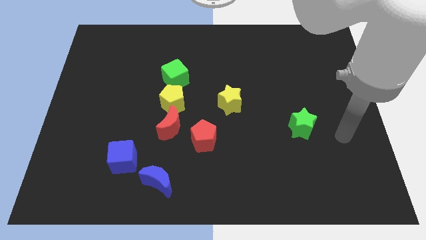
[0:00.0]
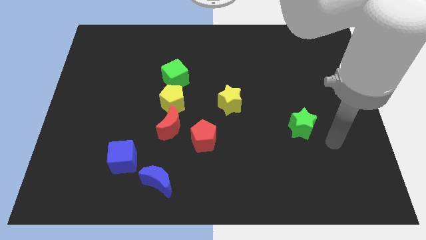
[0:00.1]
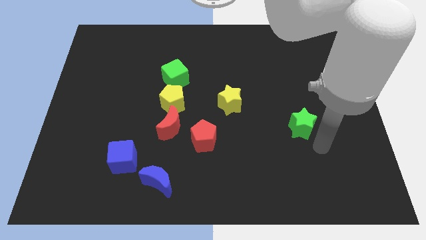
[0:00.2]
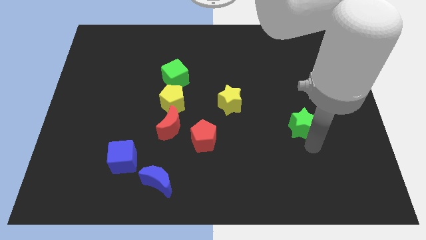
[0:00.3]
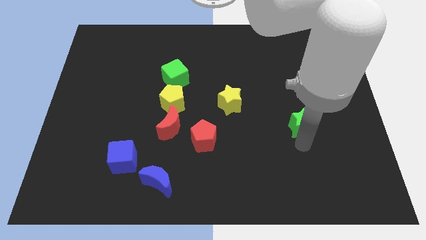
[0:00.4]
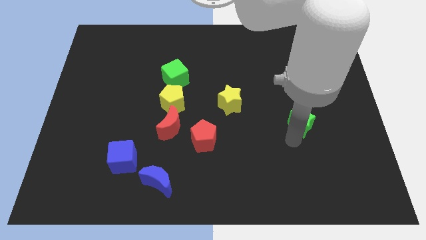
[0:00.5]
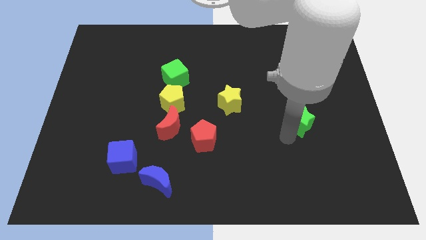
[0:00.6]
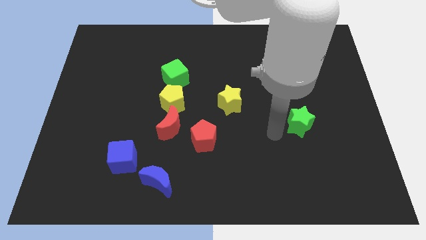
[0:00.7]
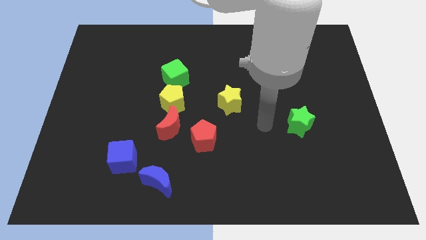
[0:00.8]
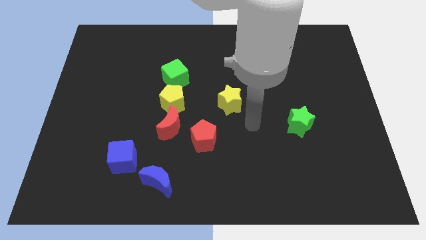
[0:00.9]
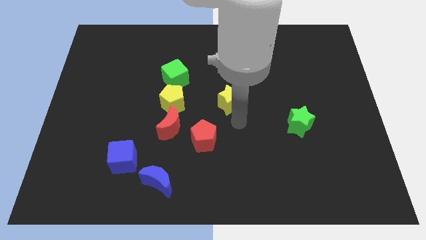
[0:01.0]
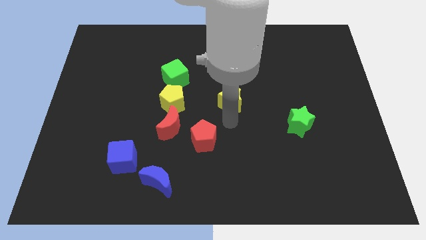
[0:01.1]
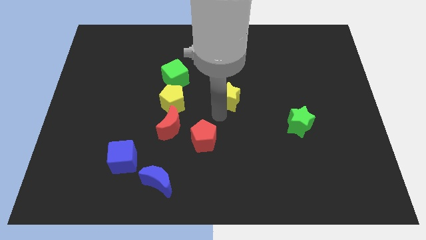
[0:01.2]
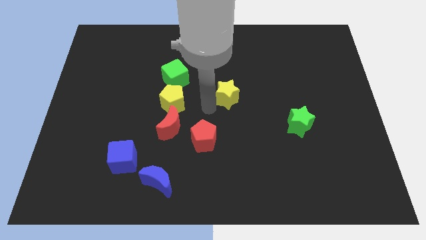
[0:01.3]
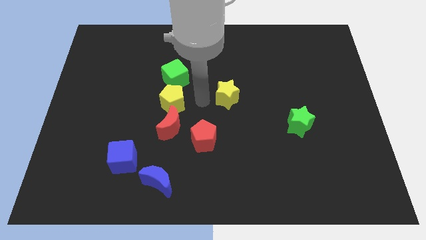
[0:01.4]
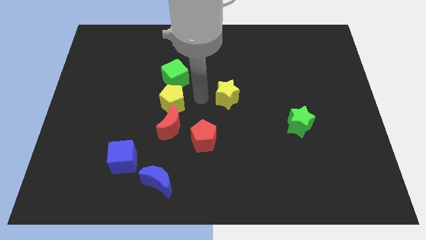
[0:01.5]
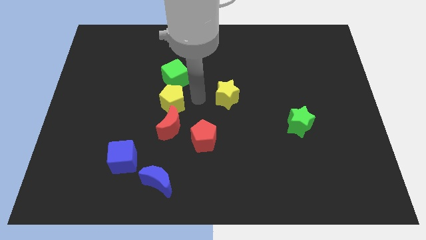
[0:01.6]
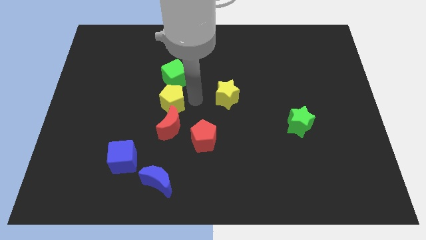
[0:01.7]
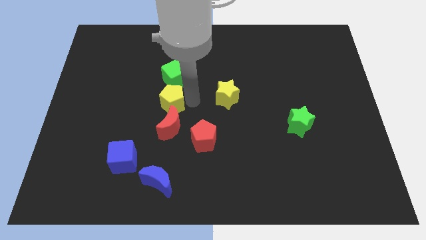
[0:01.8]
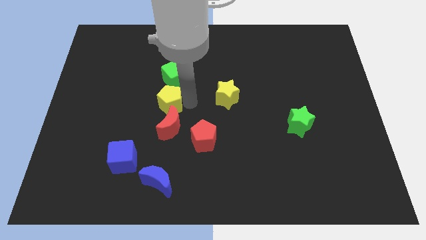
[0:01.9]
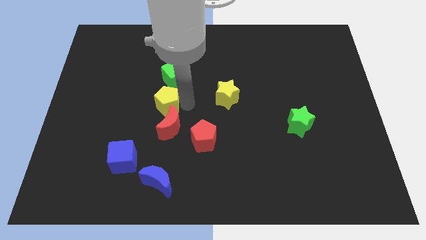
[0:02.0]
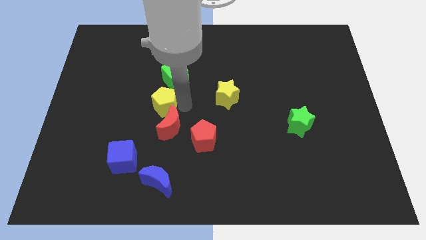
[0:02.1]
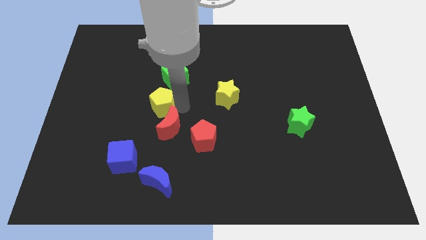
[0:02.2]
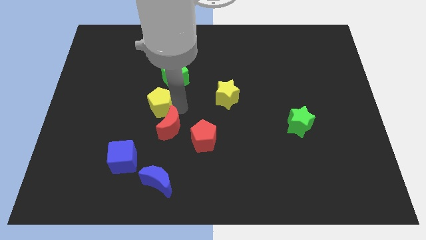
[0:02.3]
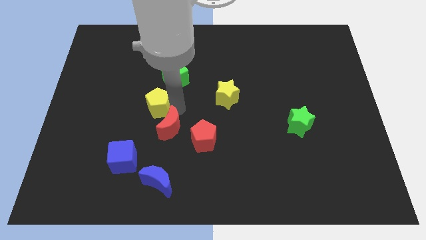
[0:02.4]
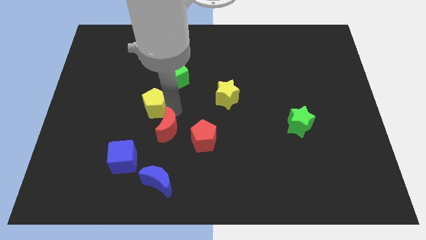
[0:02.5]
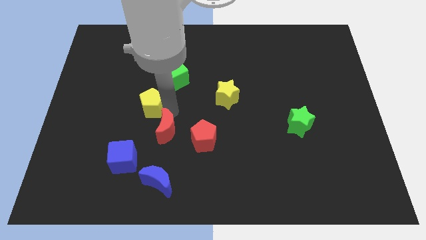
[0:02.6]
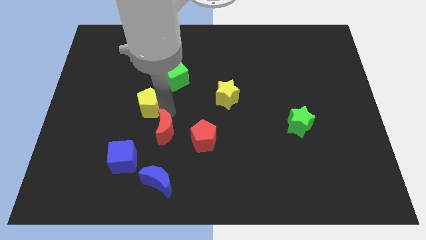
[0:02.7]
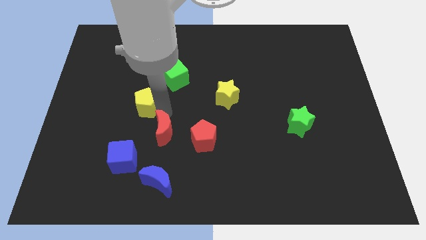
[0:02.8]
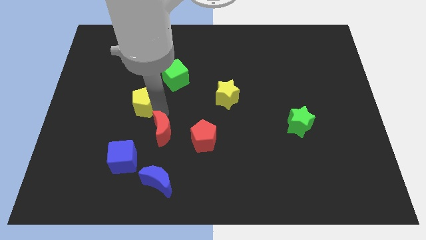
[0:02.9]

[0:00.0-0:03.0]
push the yellow pentagon left a little

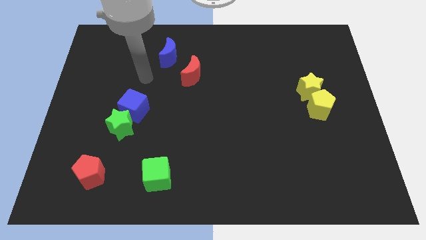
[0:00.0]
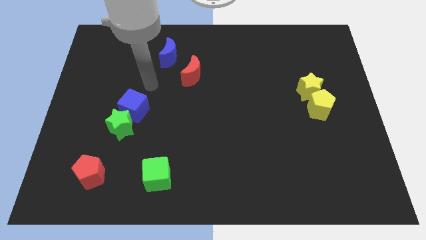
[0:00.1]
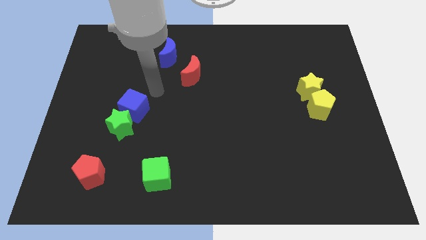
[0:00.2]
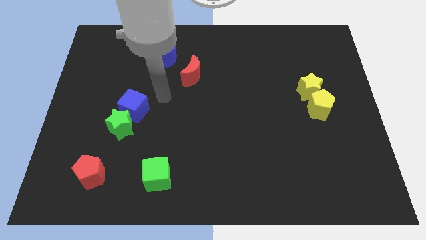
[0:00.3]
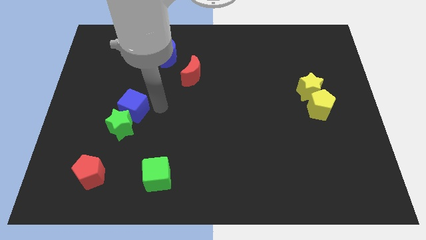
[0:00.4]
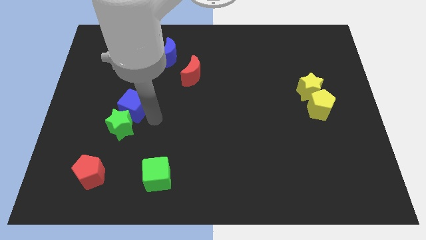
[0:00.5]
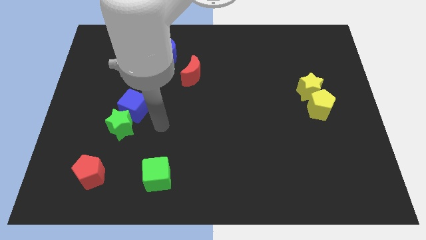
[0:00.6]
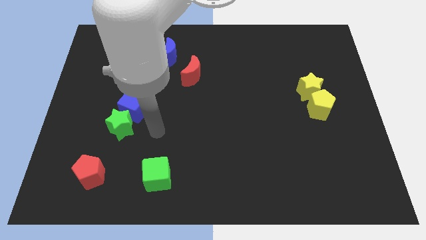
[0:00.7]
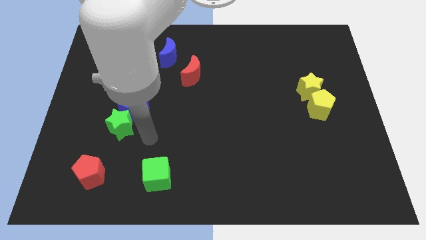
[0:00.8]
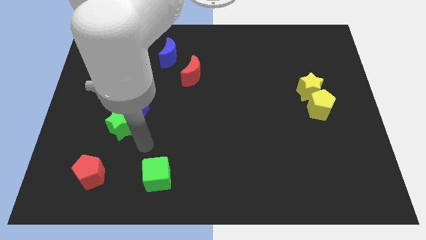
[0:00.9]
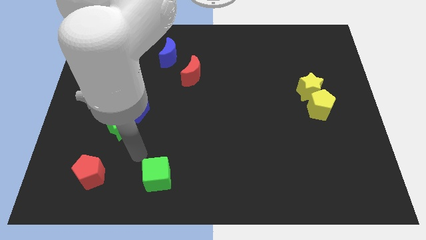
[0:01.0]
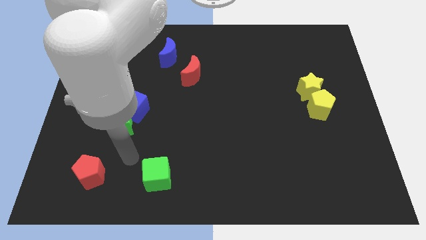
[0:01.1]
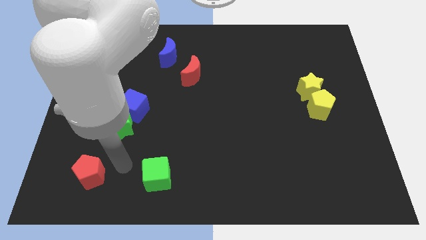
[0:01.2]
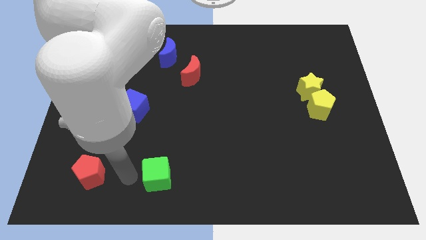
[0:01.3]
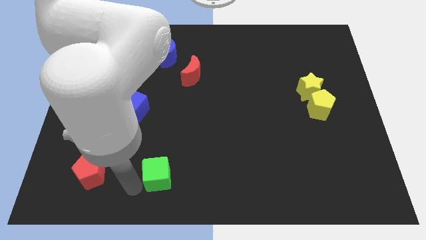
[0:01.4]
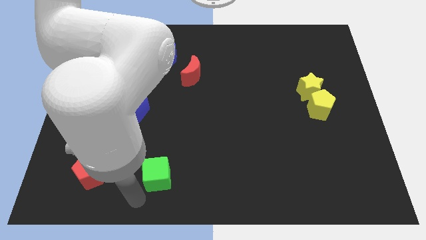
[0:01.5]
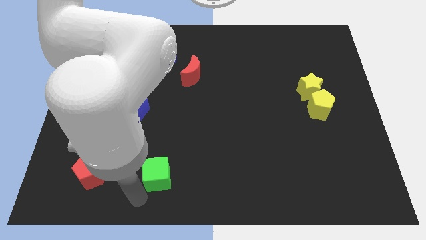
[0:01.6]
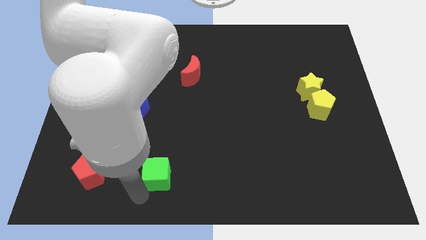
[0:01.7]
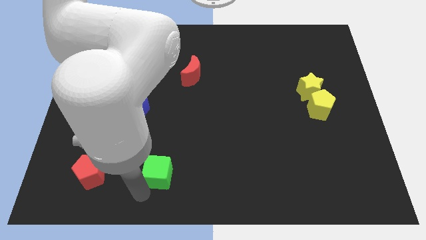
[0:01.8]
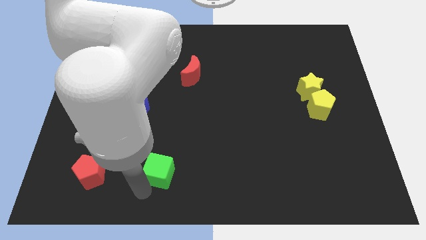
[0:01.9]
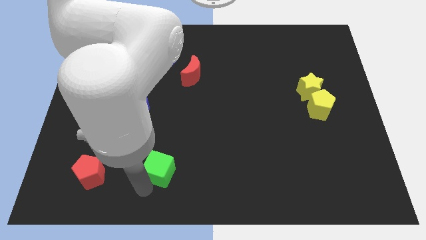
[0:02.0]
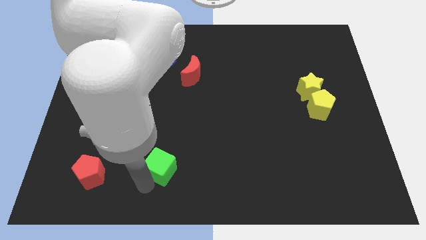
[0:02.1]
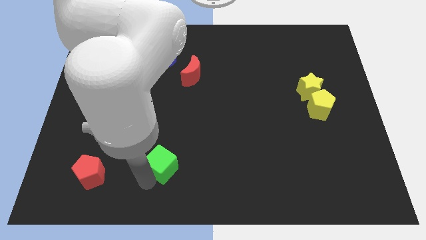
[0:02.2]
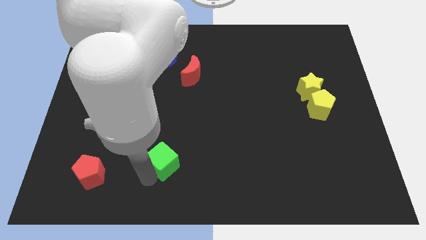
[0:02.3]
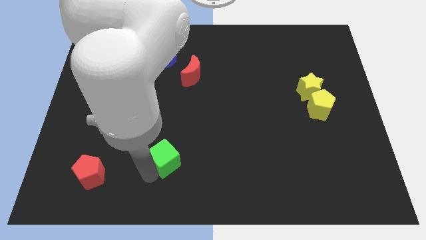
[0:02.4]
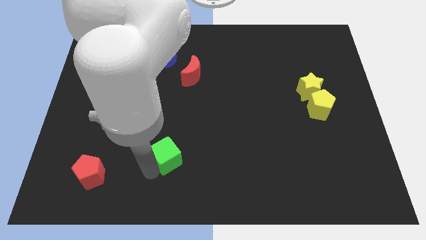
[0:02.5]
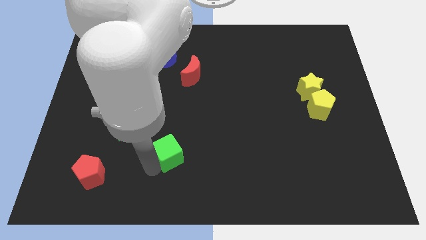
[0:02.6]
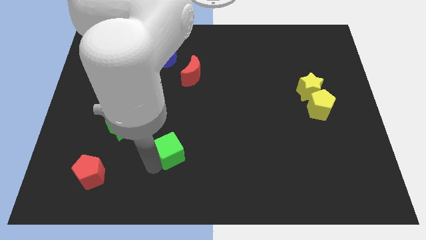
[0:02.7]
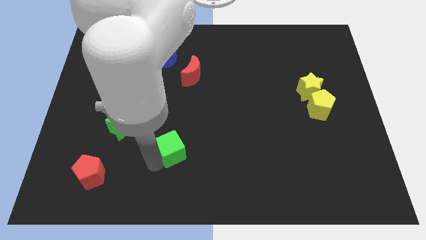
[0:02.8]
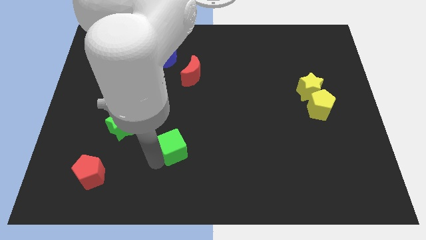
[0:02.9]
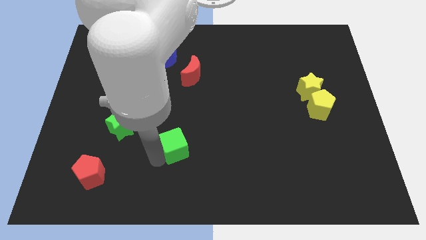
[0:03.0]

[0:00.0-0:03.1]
move the green cube diagonally upwards and right a little bit

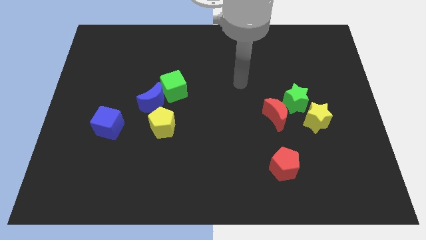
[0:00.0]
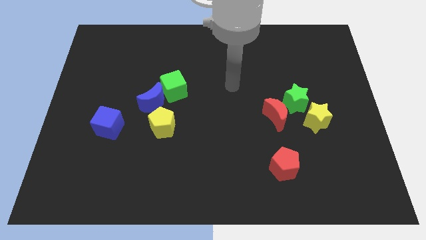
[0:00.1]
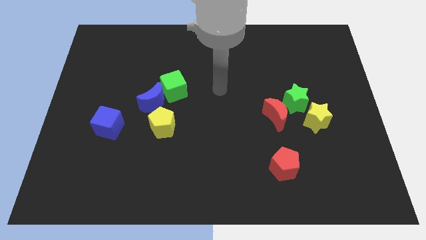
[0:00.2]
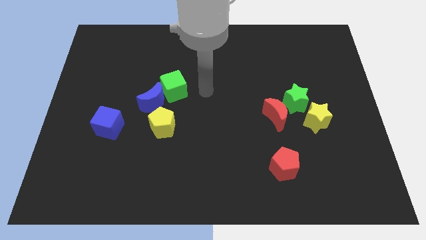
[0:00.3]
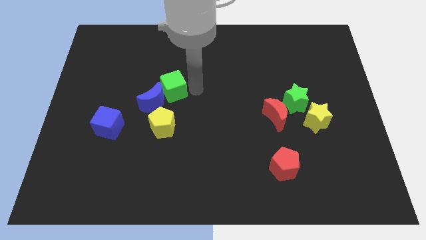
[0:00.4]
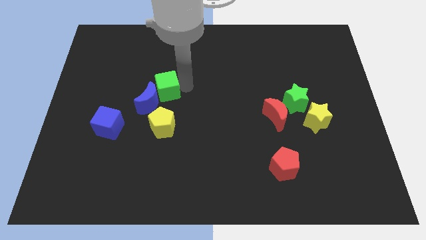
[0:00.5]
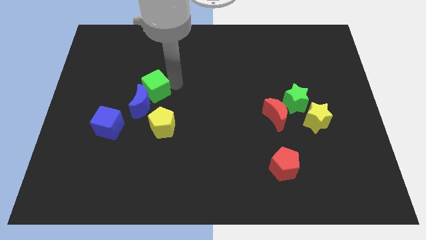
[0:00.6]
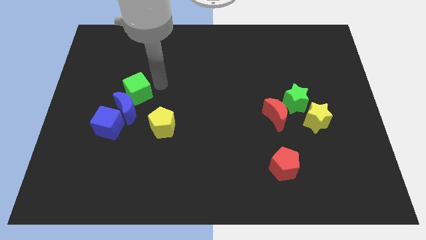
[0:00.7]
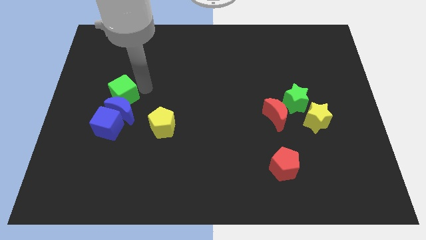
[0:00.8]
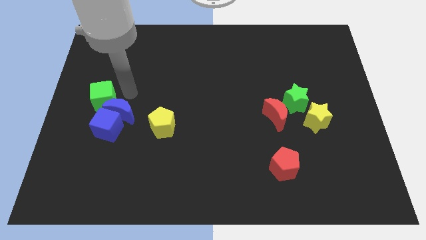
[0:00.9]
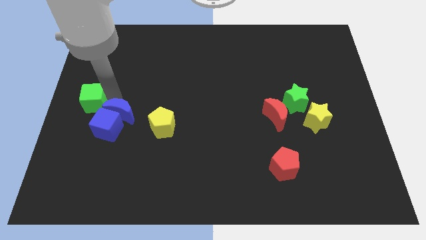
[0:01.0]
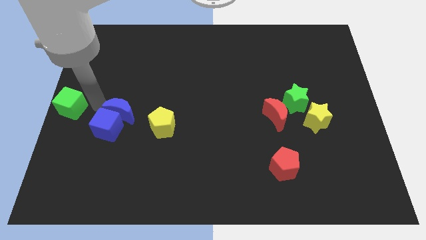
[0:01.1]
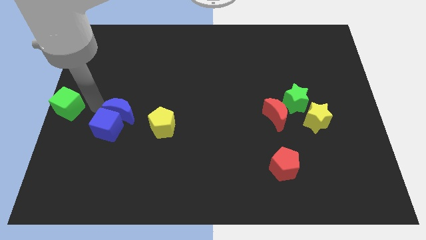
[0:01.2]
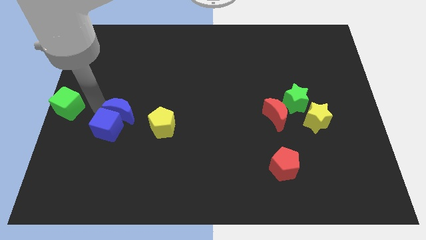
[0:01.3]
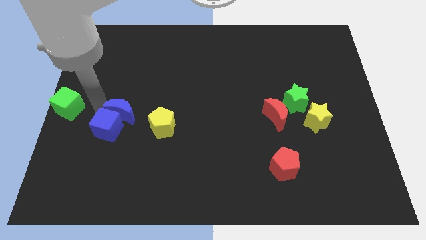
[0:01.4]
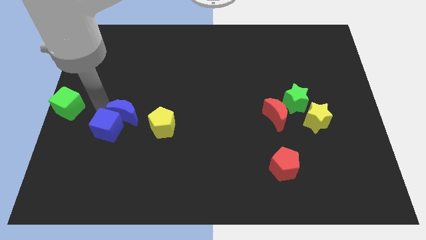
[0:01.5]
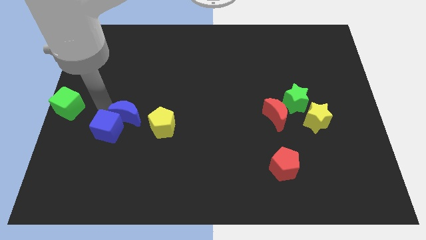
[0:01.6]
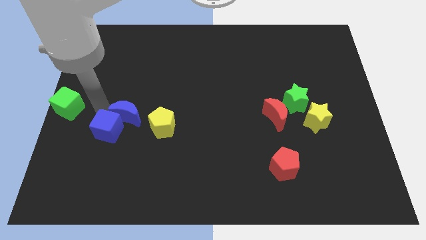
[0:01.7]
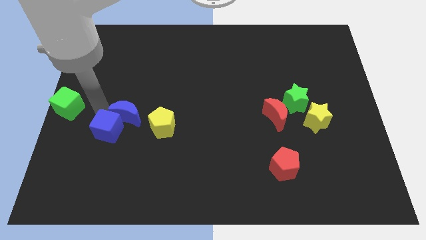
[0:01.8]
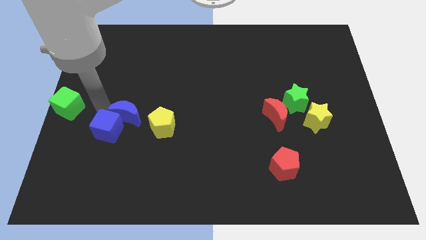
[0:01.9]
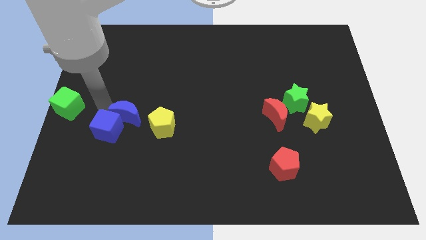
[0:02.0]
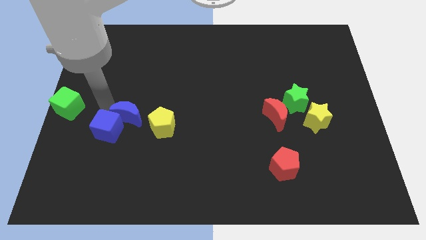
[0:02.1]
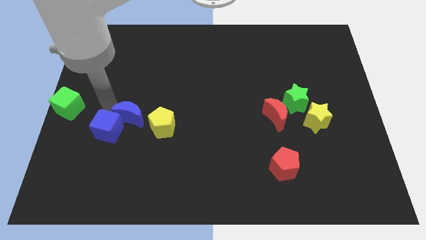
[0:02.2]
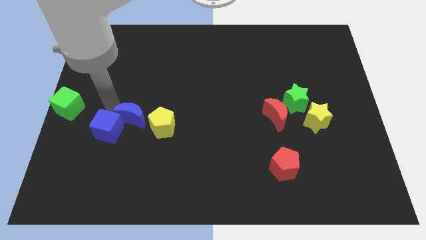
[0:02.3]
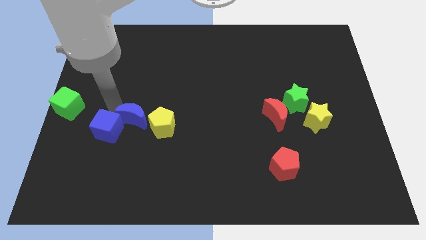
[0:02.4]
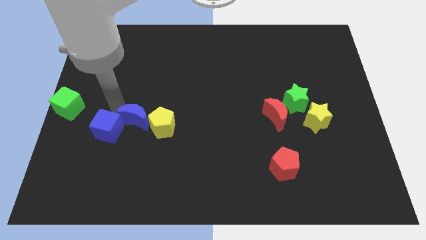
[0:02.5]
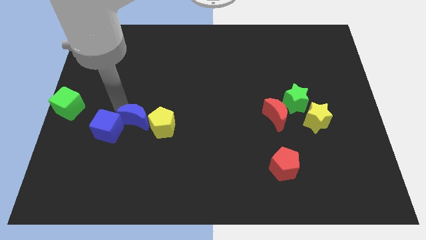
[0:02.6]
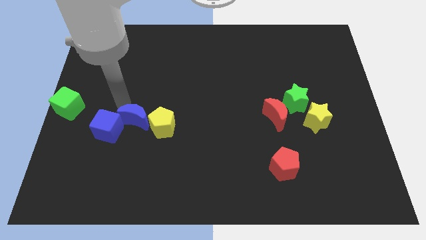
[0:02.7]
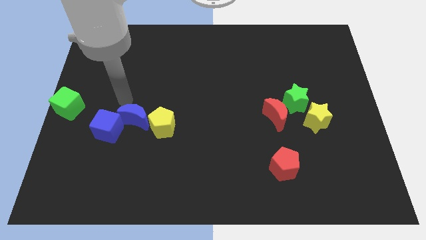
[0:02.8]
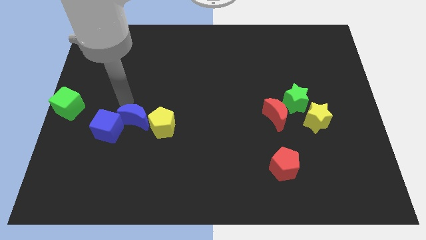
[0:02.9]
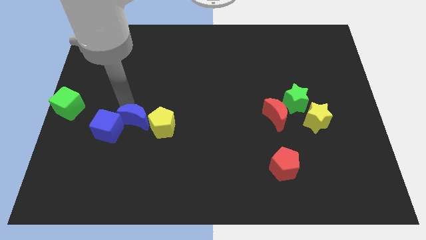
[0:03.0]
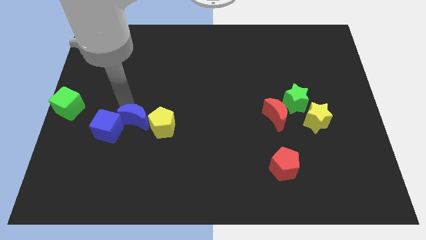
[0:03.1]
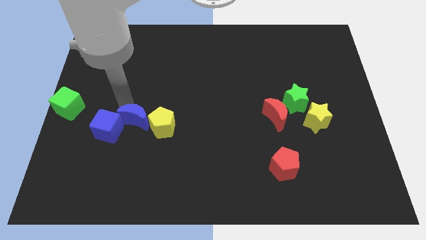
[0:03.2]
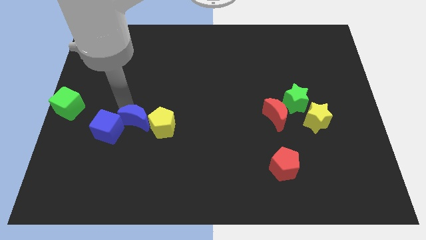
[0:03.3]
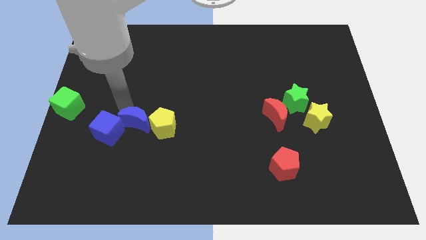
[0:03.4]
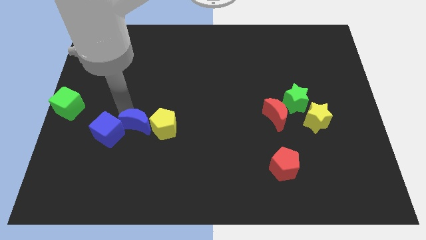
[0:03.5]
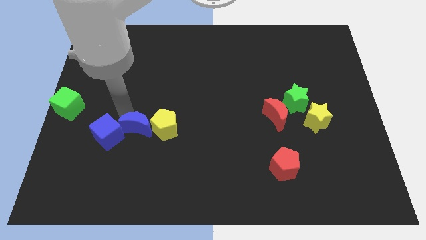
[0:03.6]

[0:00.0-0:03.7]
slightly slide the blue moon downwards
